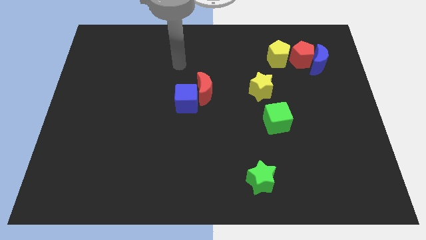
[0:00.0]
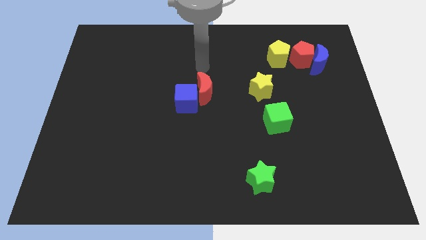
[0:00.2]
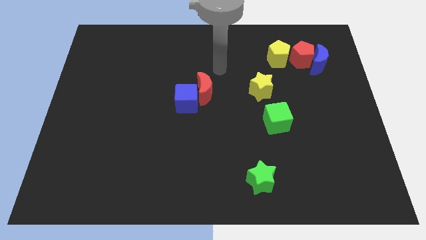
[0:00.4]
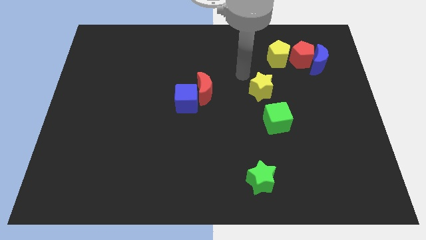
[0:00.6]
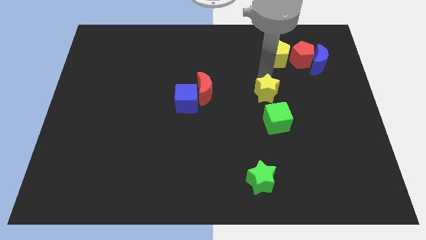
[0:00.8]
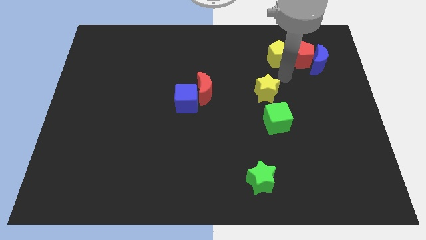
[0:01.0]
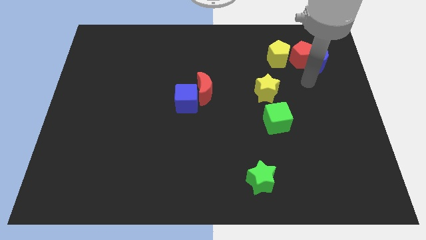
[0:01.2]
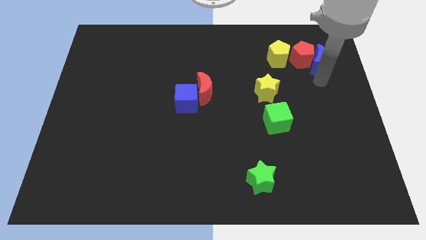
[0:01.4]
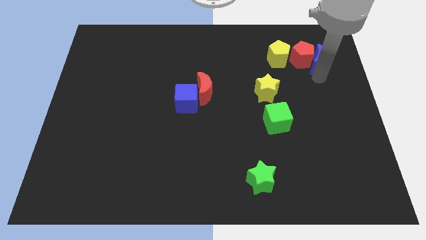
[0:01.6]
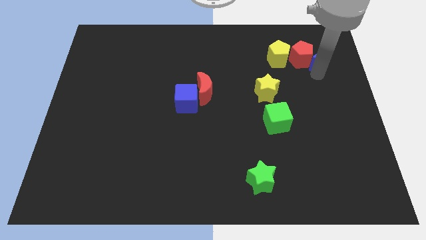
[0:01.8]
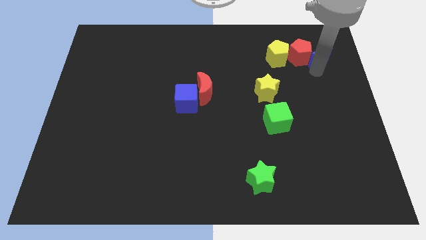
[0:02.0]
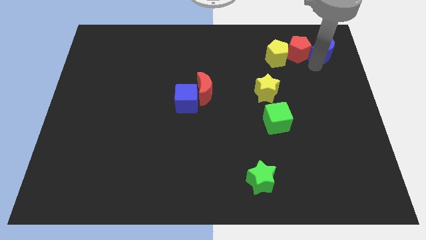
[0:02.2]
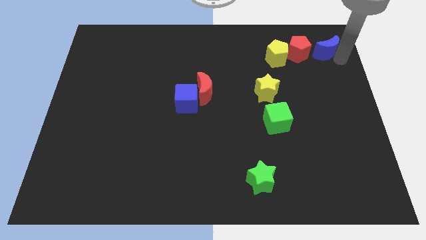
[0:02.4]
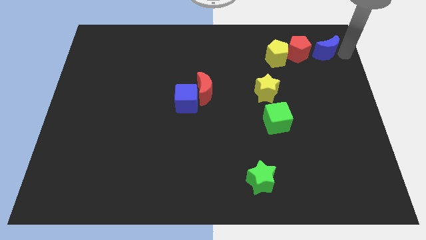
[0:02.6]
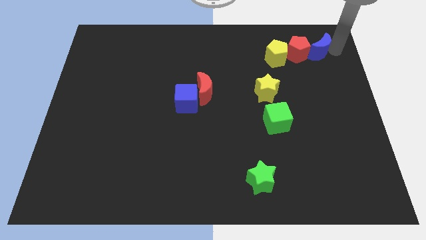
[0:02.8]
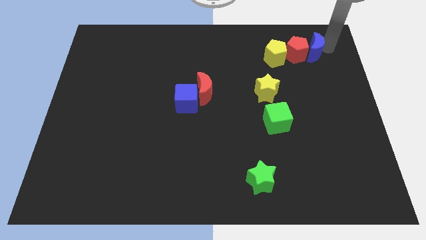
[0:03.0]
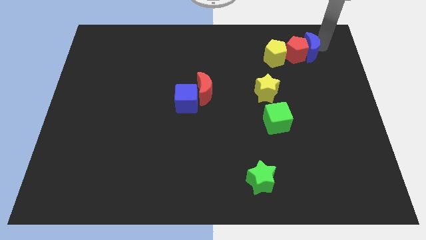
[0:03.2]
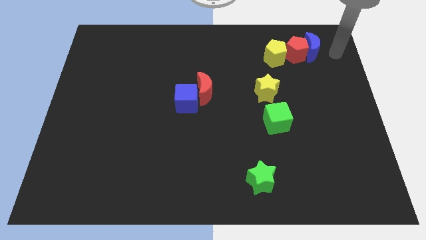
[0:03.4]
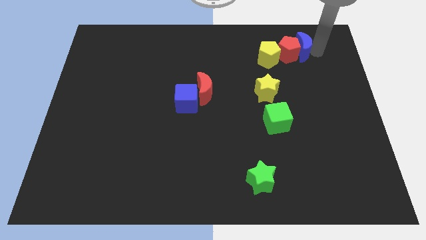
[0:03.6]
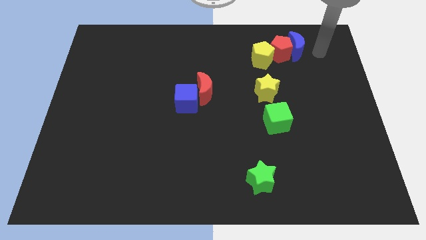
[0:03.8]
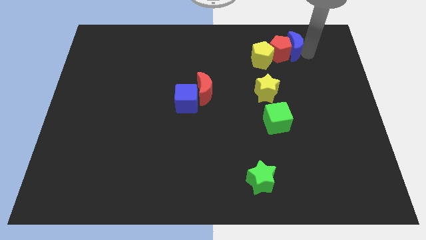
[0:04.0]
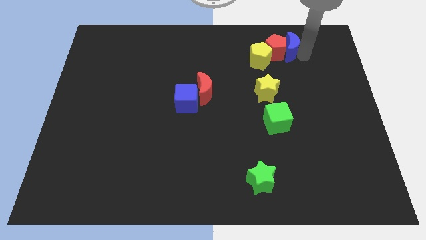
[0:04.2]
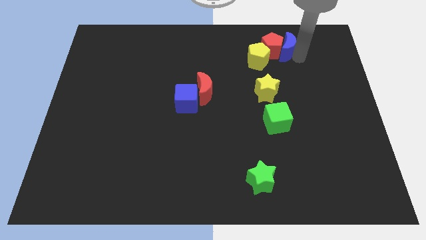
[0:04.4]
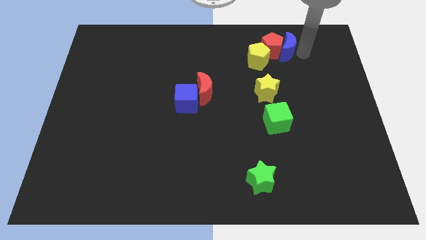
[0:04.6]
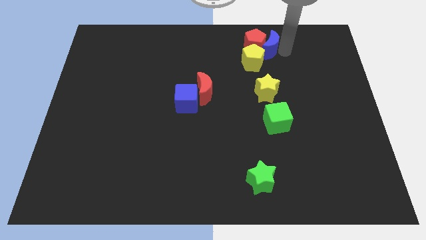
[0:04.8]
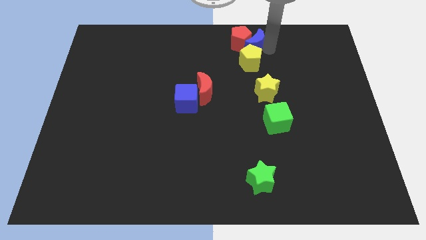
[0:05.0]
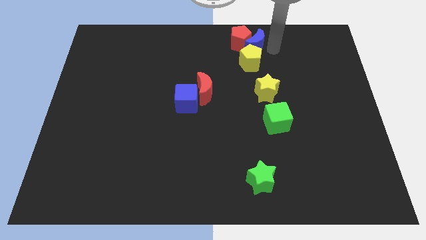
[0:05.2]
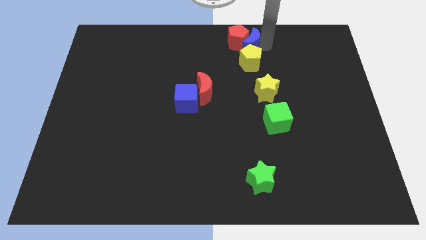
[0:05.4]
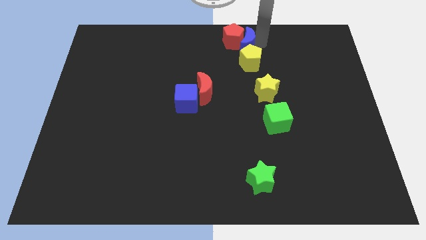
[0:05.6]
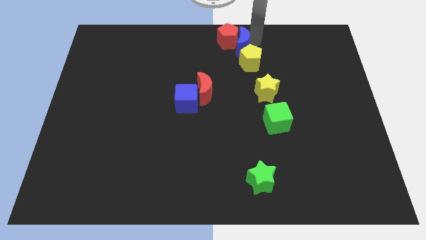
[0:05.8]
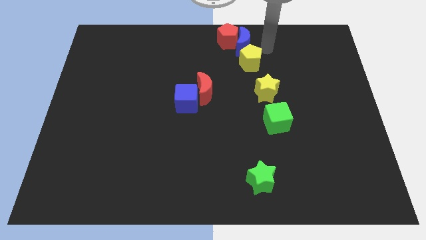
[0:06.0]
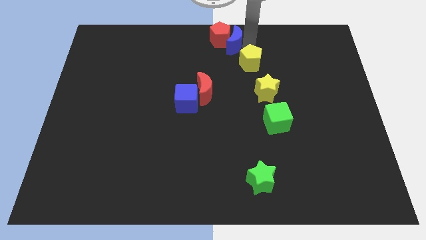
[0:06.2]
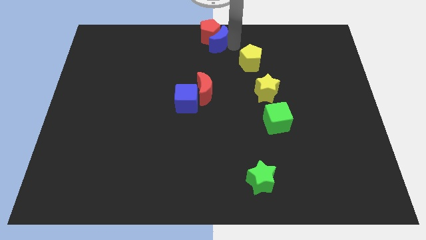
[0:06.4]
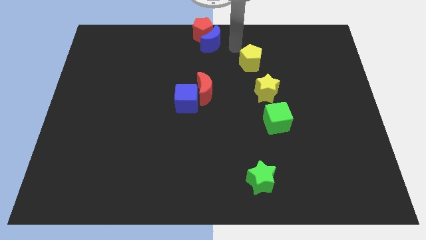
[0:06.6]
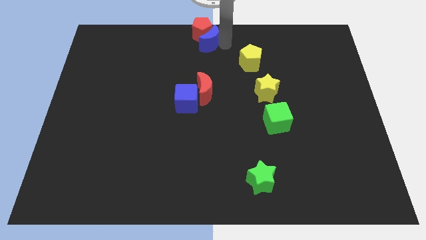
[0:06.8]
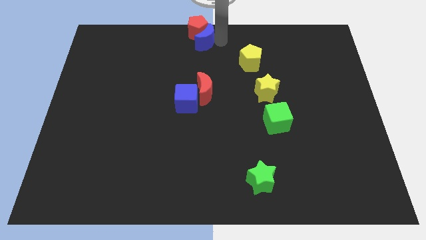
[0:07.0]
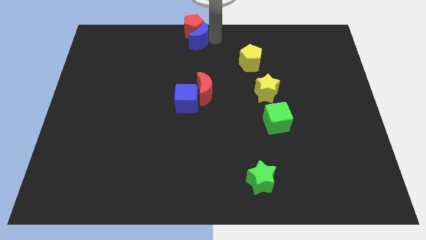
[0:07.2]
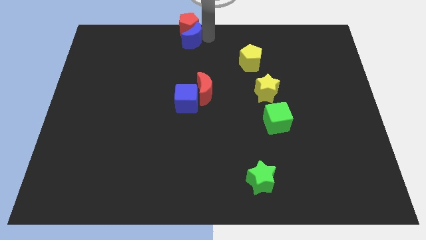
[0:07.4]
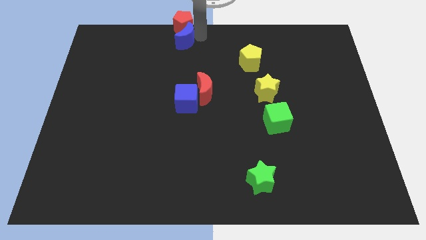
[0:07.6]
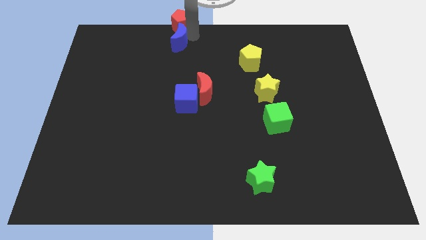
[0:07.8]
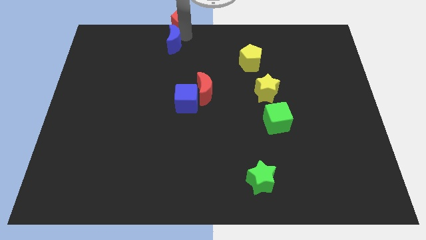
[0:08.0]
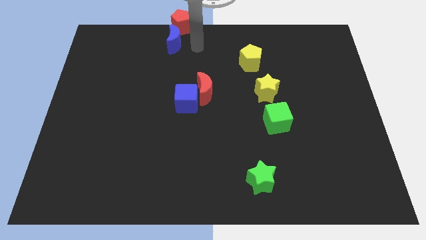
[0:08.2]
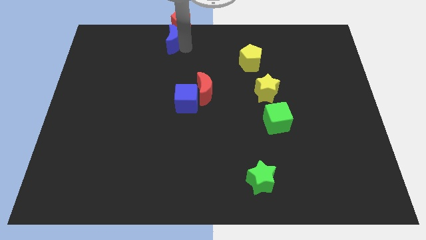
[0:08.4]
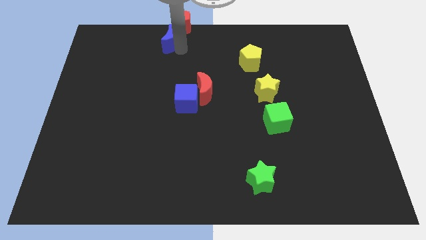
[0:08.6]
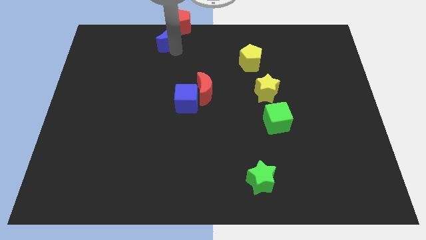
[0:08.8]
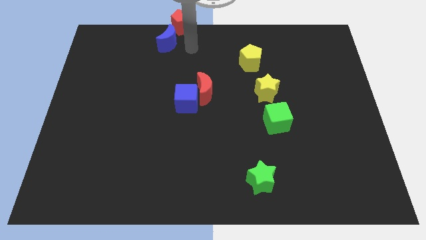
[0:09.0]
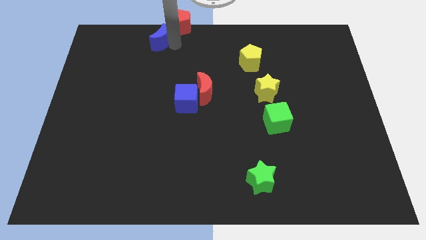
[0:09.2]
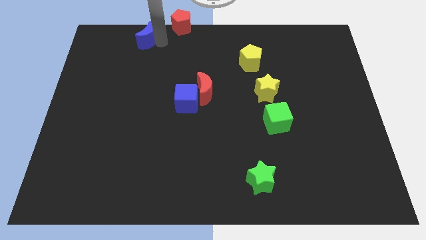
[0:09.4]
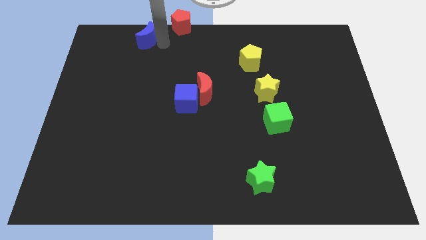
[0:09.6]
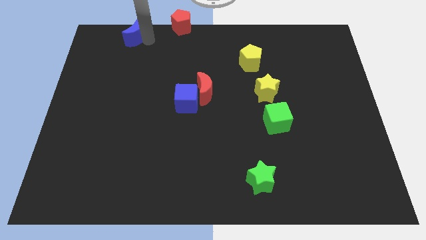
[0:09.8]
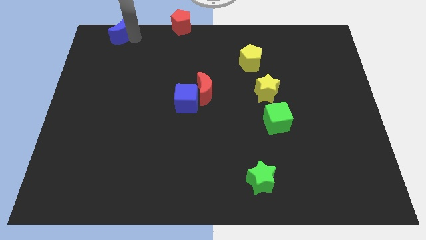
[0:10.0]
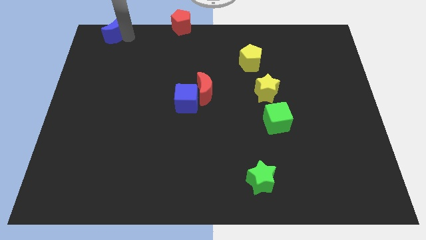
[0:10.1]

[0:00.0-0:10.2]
move the blue moon to the upper left corner

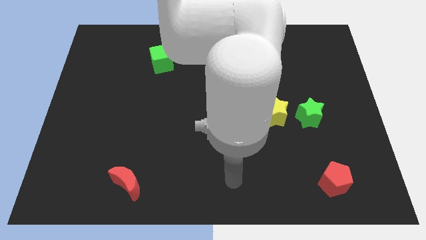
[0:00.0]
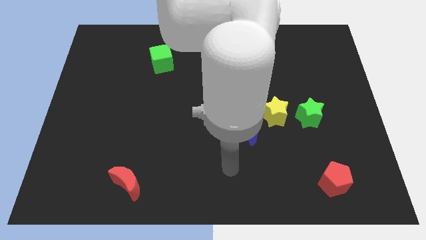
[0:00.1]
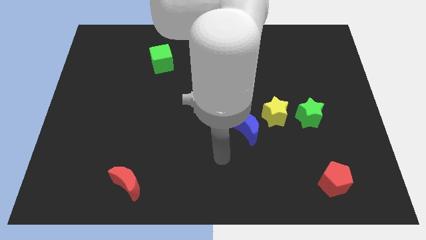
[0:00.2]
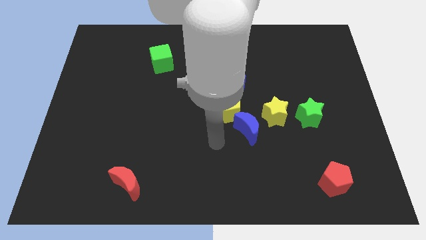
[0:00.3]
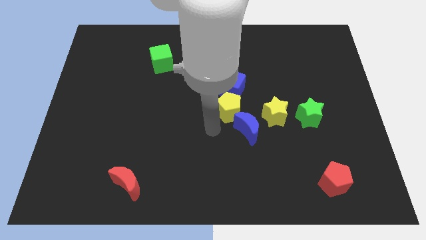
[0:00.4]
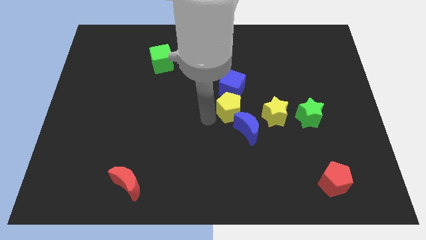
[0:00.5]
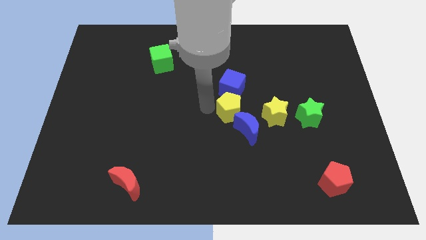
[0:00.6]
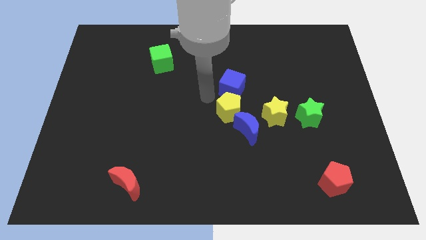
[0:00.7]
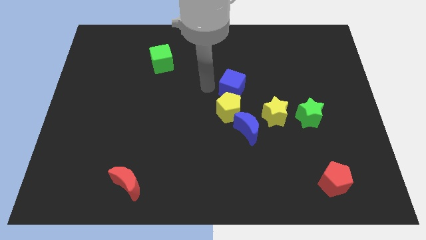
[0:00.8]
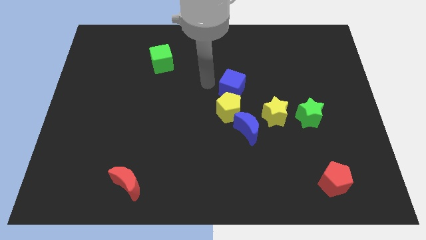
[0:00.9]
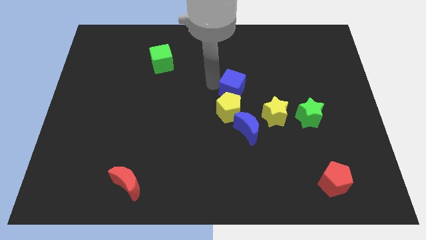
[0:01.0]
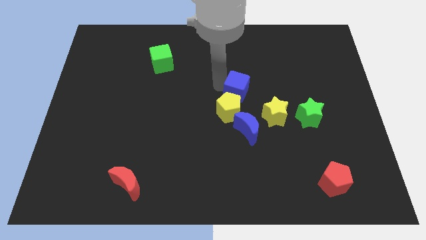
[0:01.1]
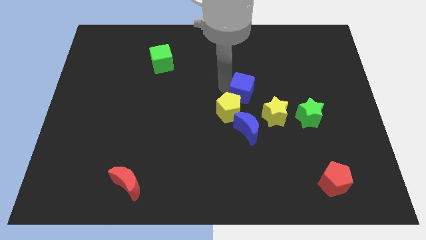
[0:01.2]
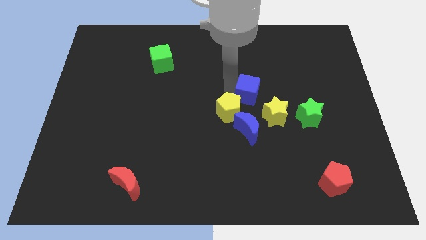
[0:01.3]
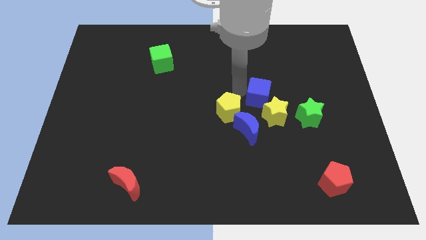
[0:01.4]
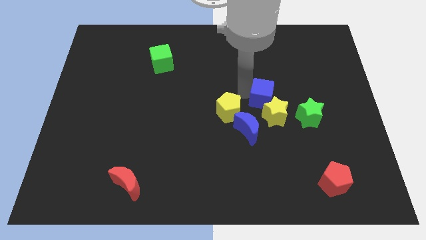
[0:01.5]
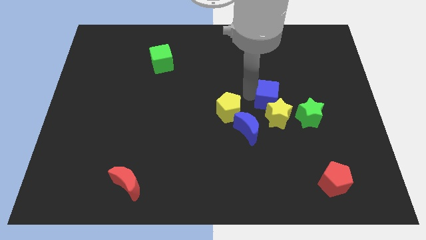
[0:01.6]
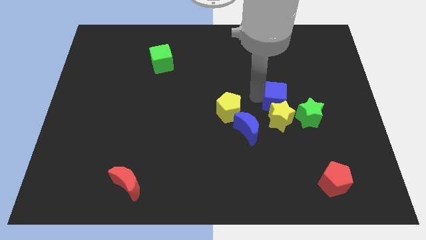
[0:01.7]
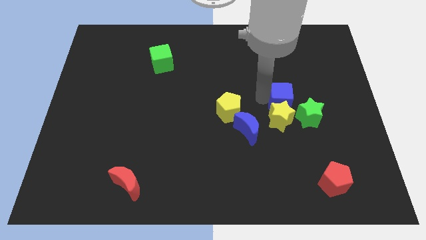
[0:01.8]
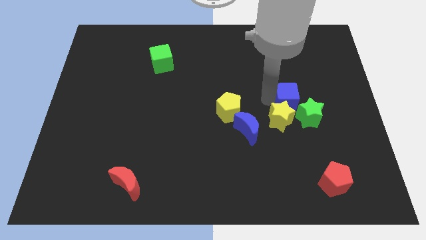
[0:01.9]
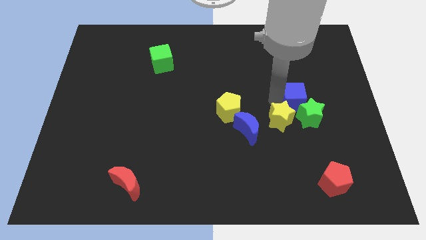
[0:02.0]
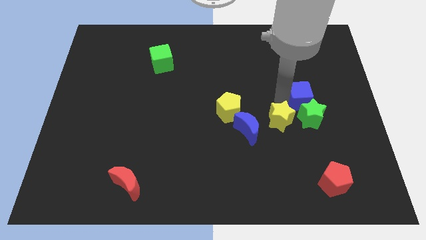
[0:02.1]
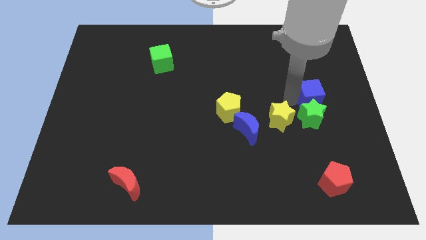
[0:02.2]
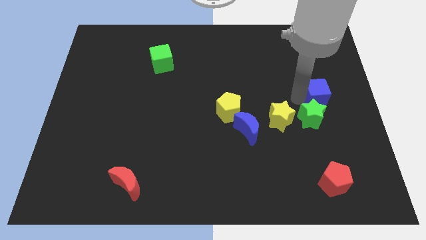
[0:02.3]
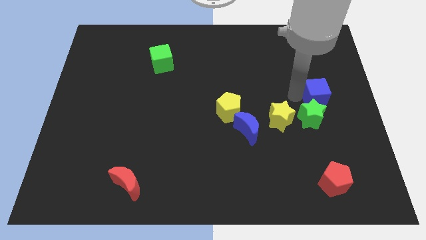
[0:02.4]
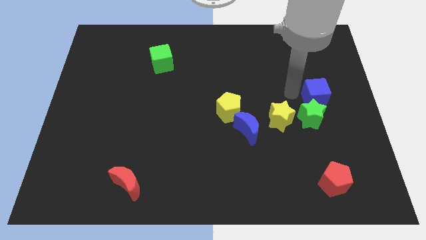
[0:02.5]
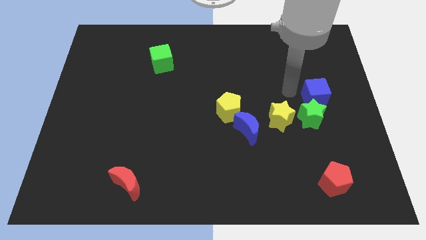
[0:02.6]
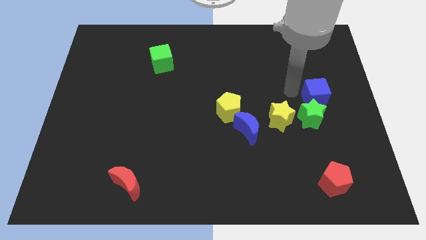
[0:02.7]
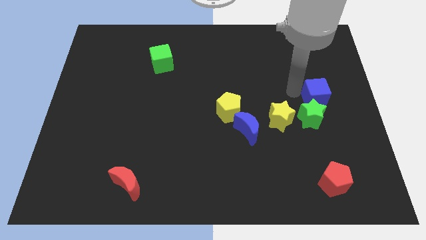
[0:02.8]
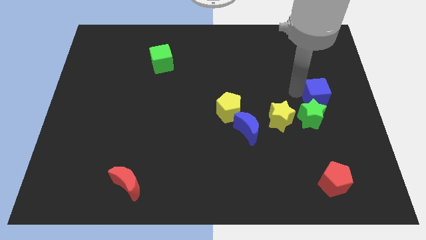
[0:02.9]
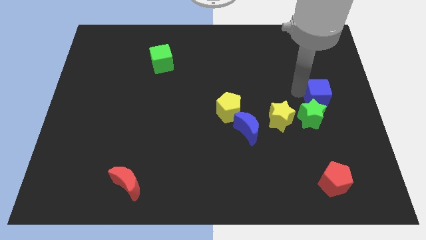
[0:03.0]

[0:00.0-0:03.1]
move the blue cube to the right side of the board
